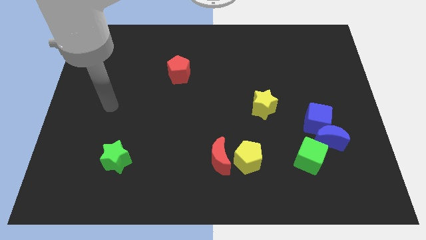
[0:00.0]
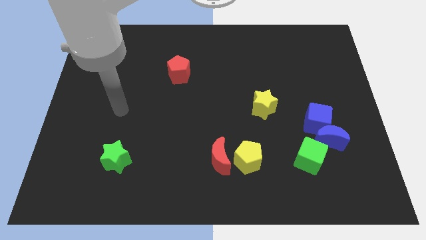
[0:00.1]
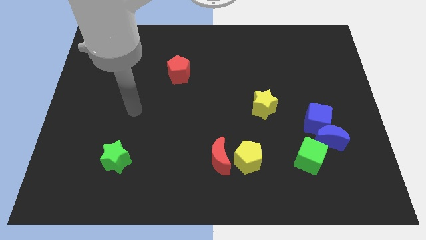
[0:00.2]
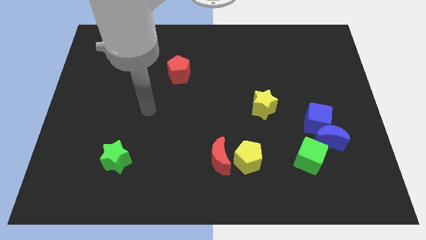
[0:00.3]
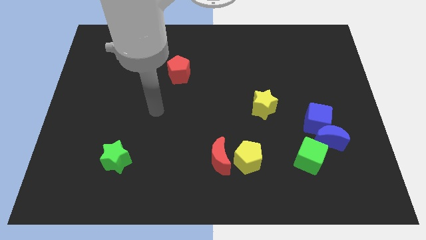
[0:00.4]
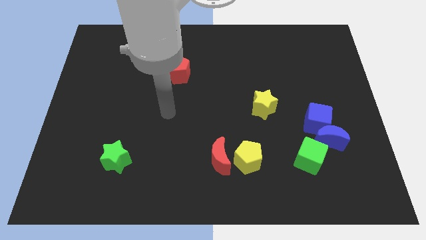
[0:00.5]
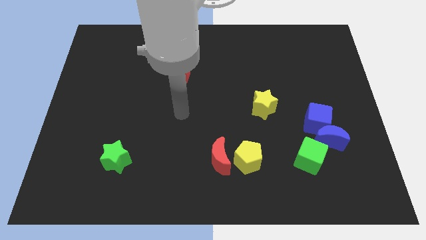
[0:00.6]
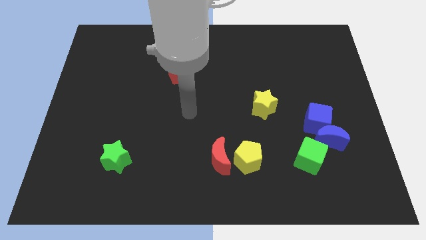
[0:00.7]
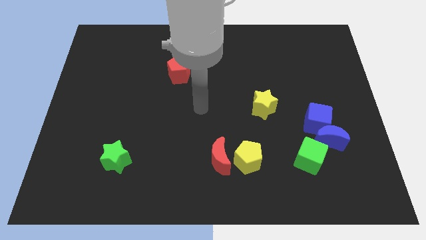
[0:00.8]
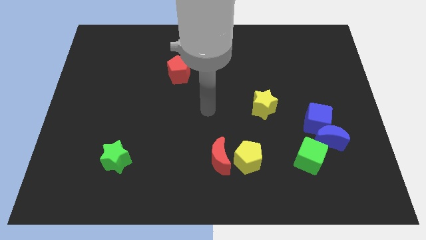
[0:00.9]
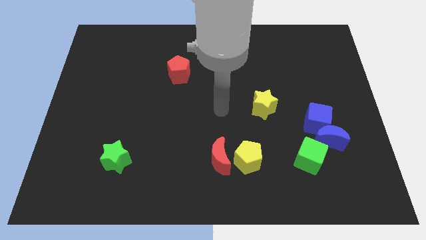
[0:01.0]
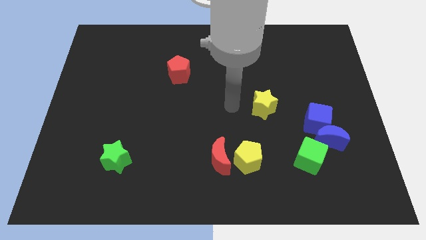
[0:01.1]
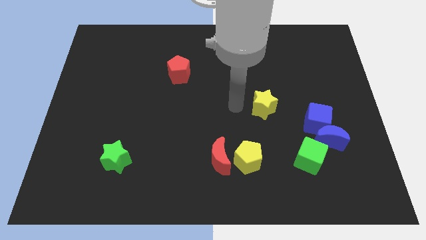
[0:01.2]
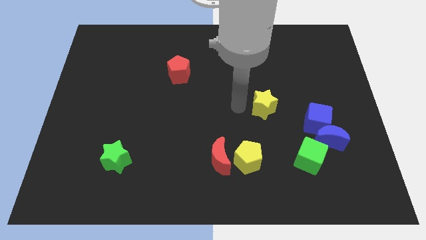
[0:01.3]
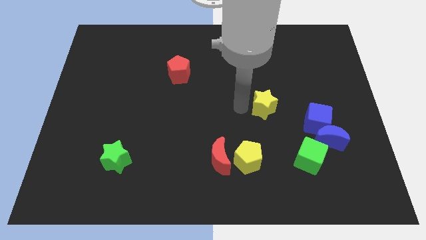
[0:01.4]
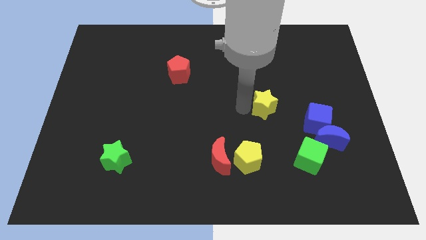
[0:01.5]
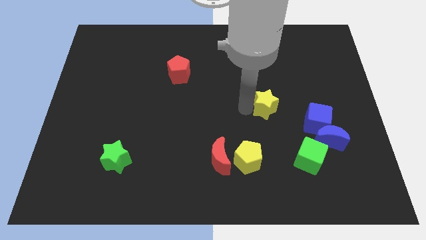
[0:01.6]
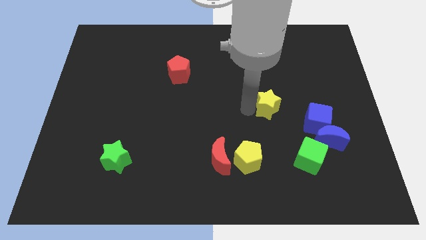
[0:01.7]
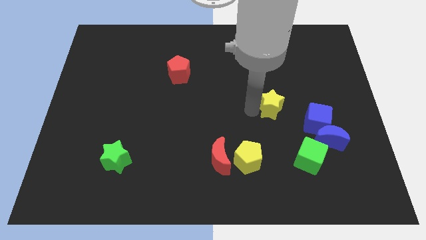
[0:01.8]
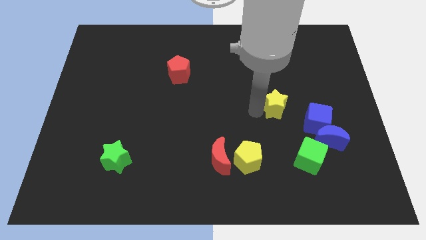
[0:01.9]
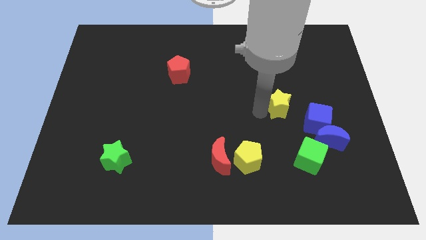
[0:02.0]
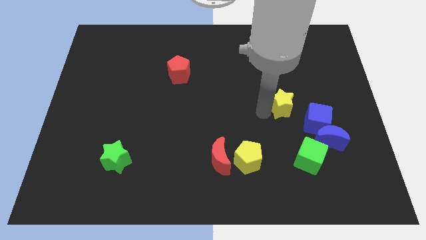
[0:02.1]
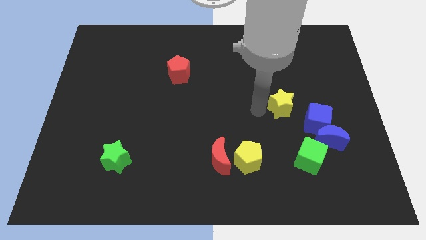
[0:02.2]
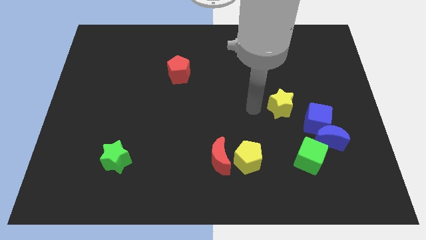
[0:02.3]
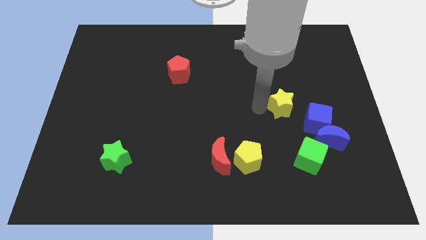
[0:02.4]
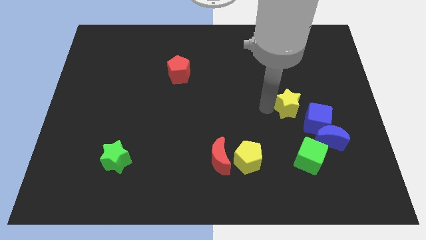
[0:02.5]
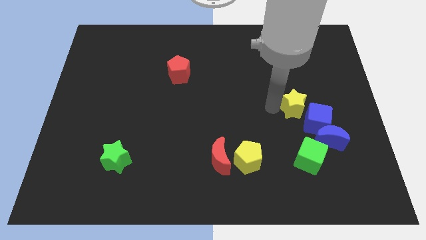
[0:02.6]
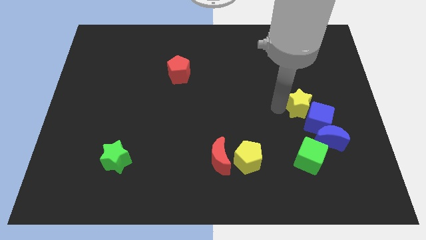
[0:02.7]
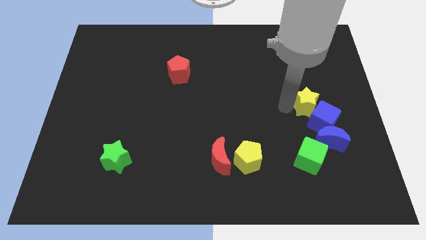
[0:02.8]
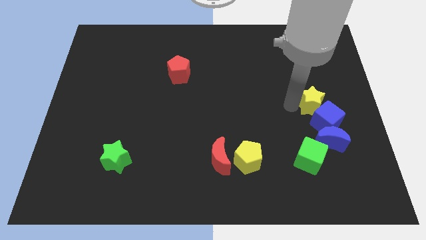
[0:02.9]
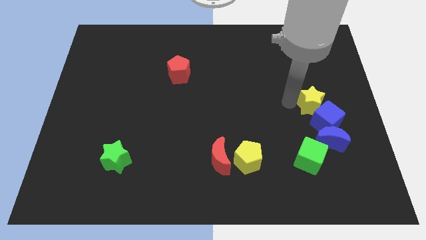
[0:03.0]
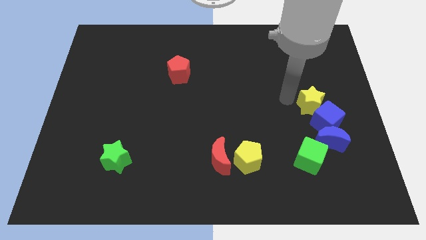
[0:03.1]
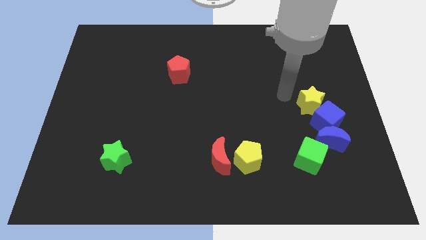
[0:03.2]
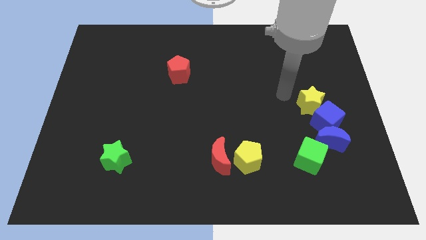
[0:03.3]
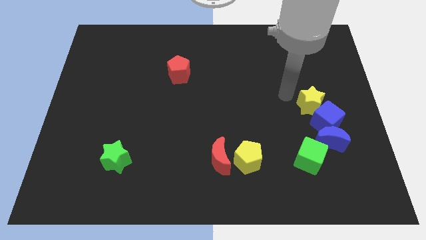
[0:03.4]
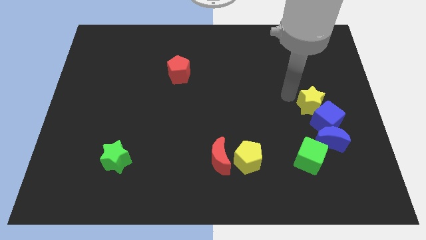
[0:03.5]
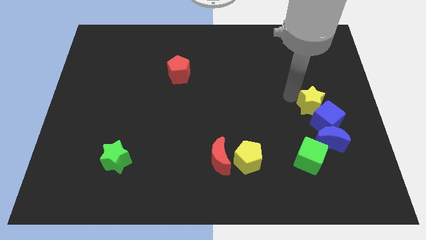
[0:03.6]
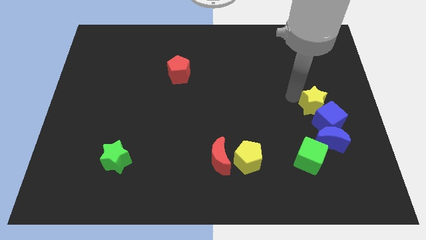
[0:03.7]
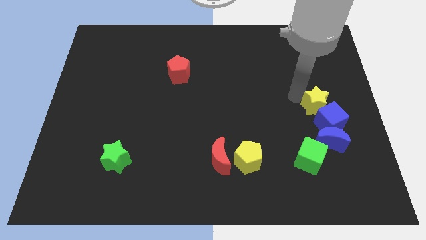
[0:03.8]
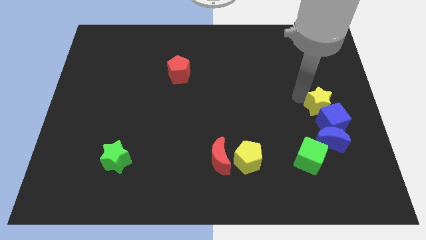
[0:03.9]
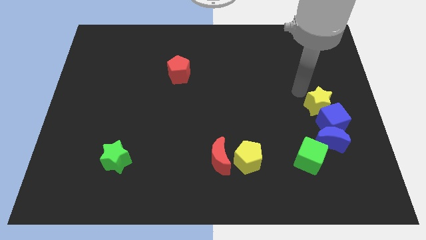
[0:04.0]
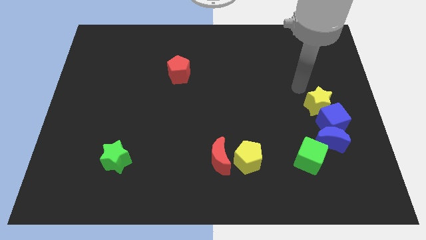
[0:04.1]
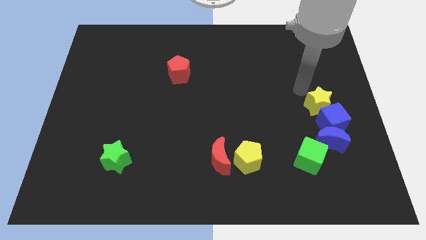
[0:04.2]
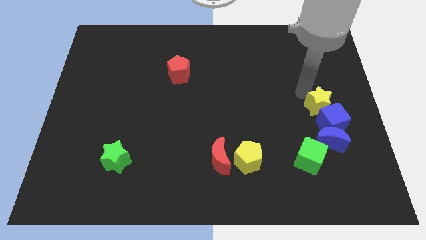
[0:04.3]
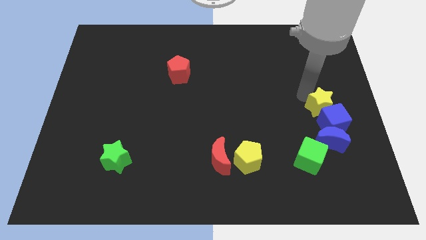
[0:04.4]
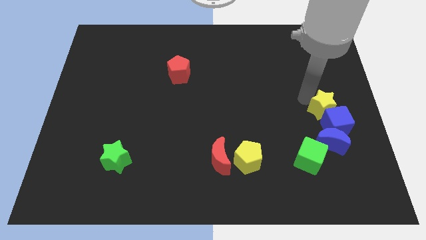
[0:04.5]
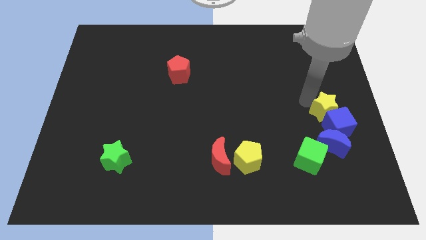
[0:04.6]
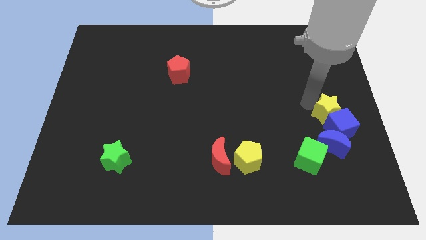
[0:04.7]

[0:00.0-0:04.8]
slightly push the yellow star down and to the right

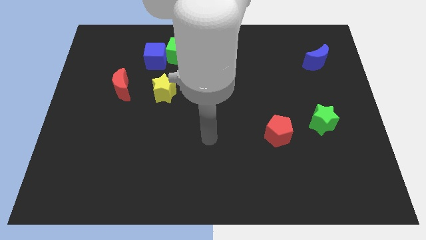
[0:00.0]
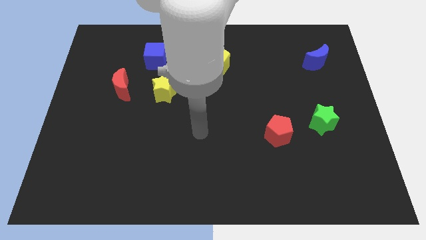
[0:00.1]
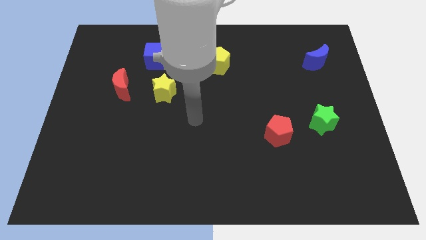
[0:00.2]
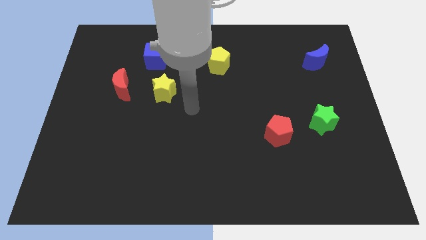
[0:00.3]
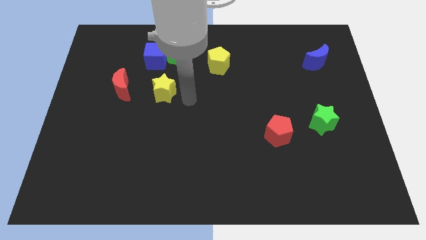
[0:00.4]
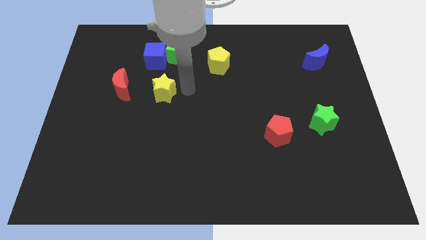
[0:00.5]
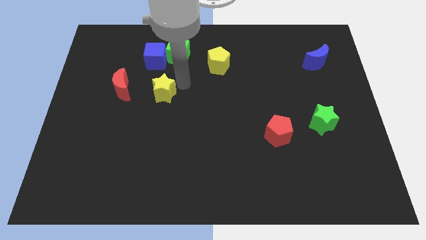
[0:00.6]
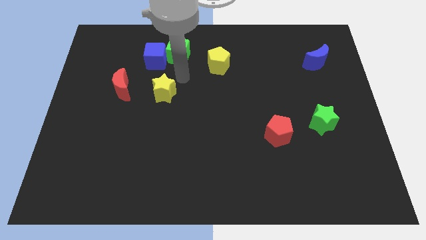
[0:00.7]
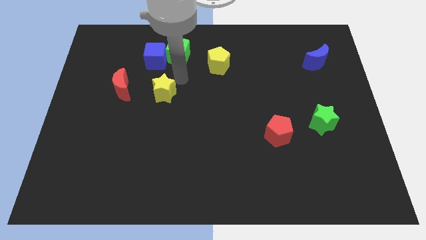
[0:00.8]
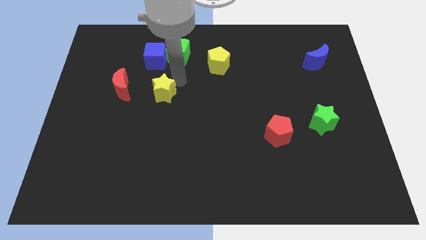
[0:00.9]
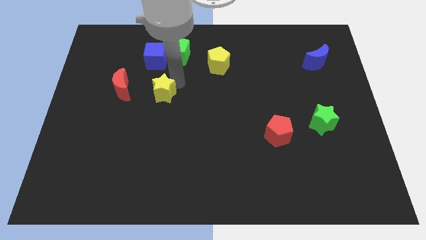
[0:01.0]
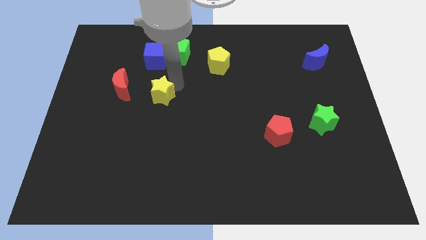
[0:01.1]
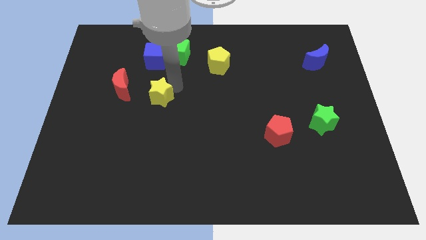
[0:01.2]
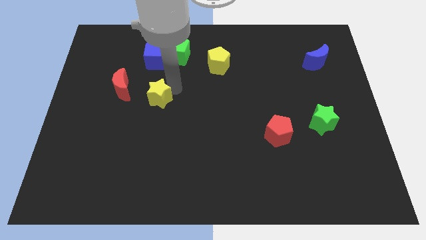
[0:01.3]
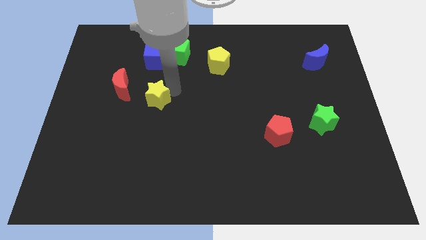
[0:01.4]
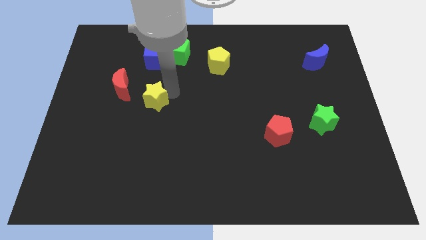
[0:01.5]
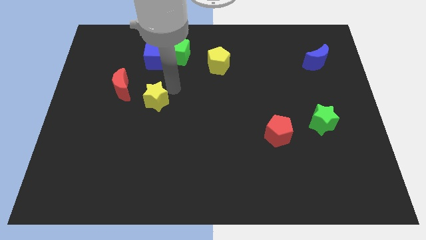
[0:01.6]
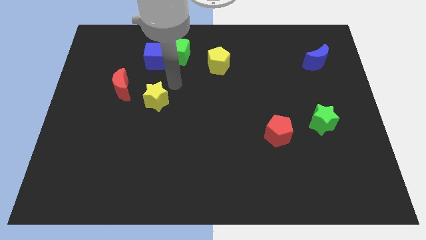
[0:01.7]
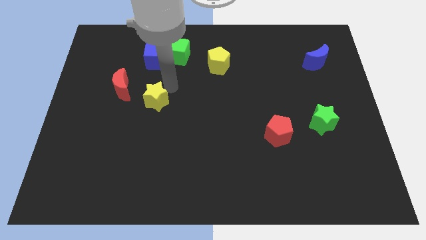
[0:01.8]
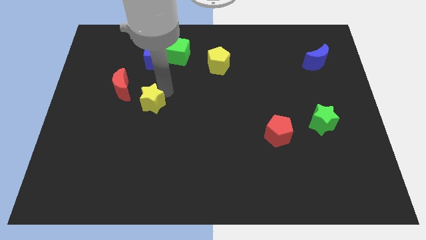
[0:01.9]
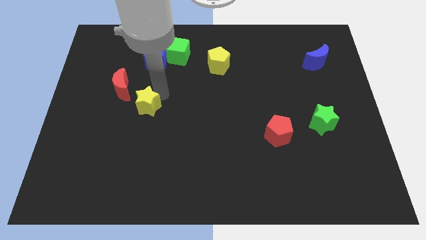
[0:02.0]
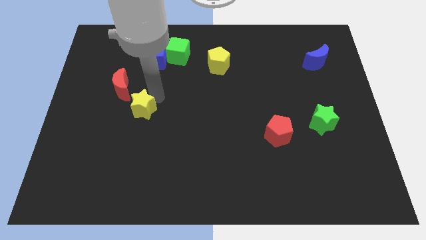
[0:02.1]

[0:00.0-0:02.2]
slide the yellow star slightly down and left

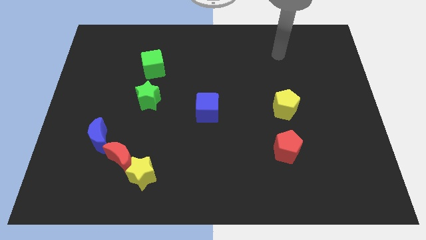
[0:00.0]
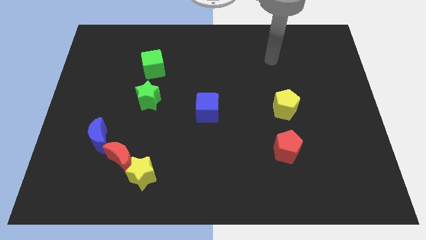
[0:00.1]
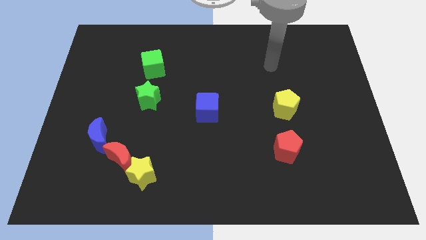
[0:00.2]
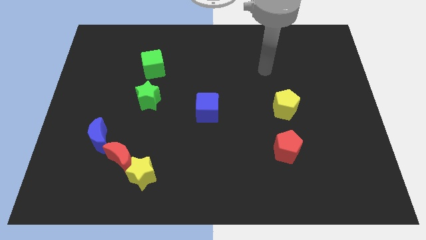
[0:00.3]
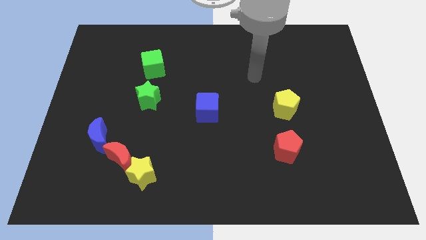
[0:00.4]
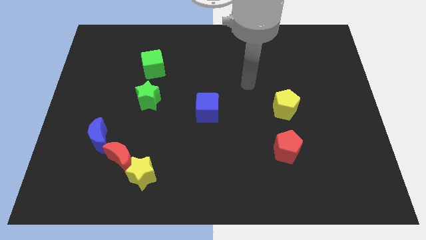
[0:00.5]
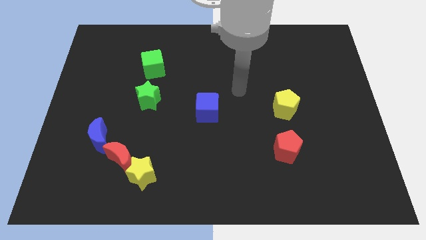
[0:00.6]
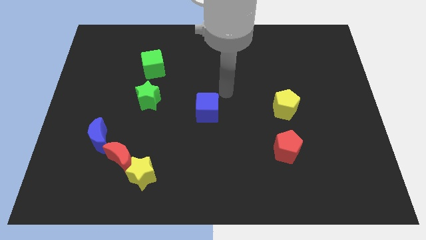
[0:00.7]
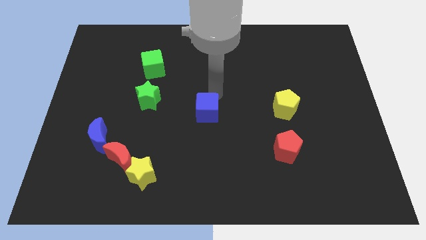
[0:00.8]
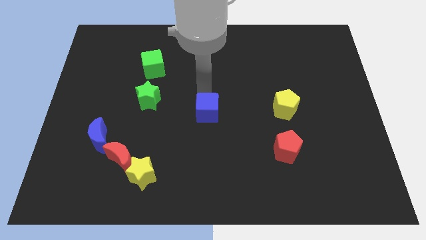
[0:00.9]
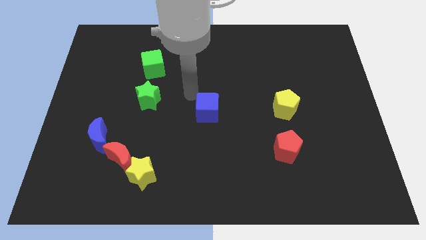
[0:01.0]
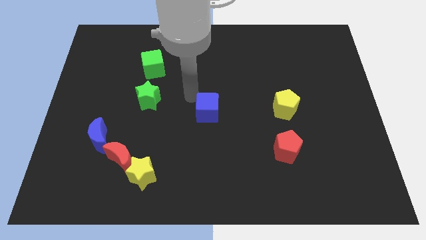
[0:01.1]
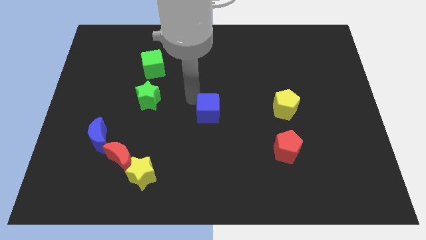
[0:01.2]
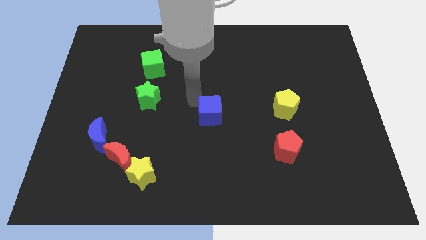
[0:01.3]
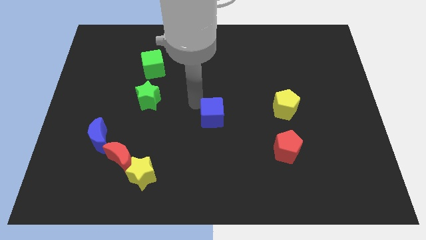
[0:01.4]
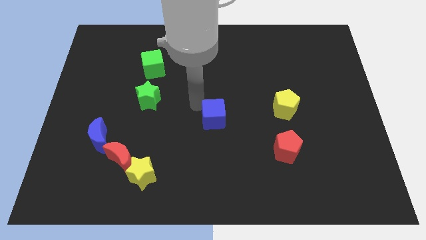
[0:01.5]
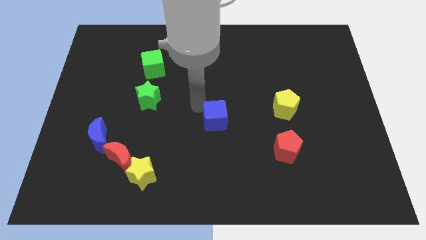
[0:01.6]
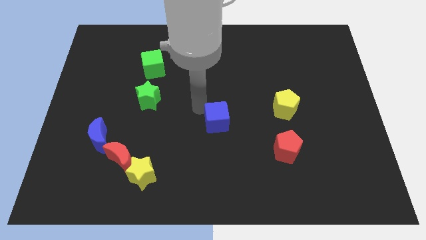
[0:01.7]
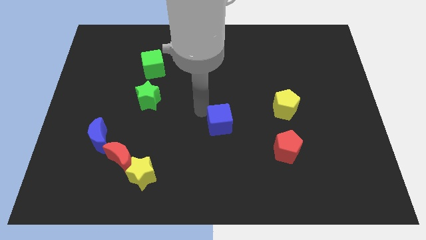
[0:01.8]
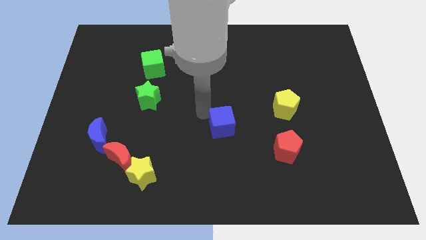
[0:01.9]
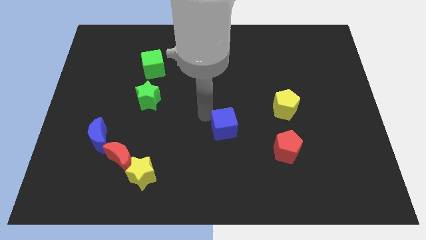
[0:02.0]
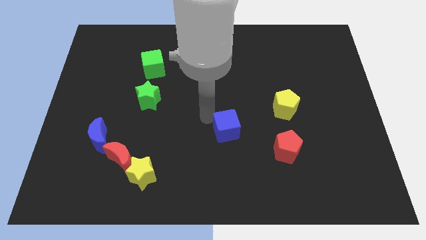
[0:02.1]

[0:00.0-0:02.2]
slightly slide the blue cube down and to the right diagonally
